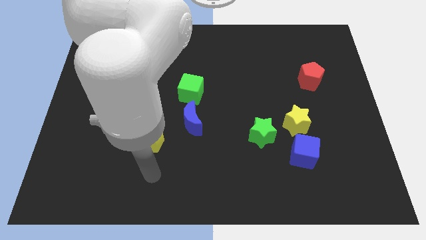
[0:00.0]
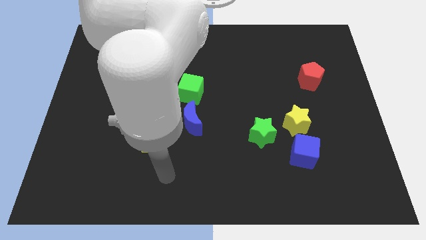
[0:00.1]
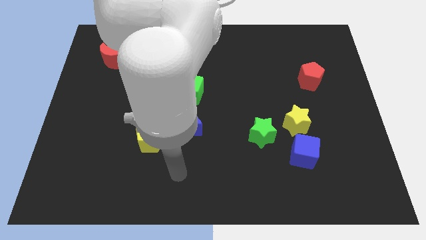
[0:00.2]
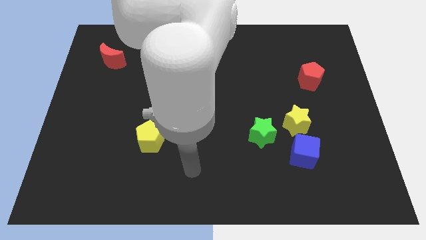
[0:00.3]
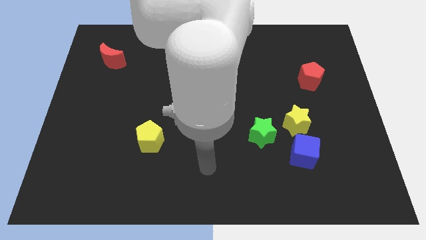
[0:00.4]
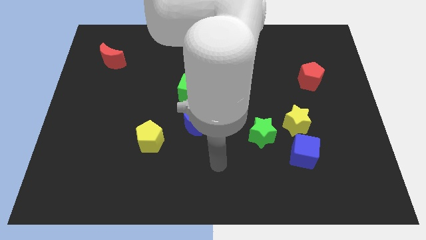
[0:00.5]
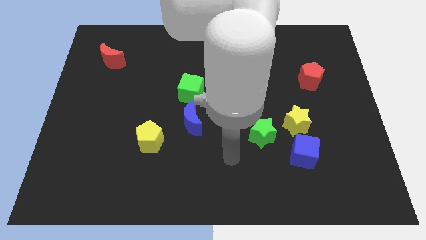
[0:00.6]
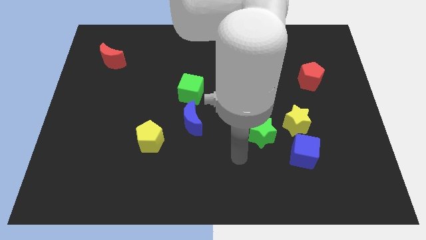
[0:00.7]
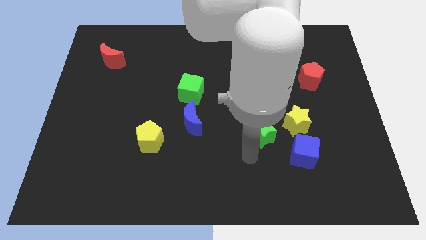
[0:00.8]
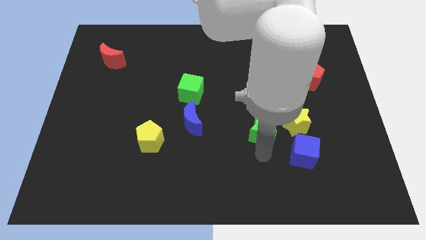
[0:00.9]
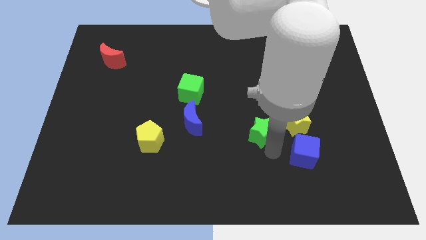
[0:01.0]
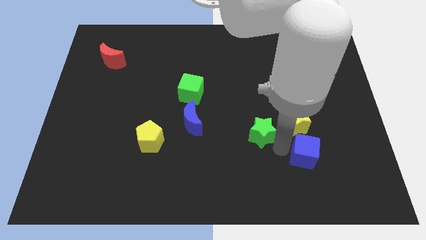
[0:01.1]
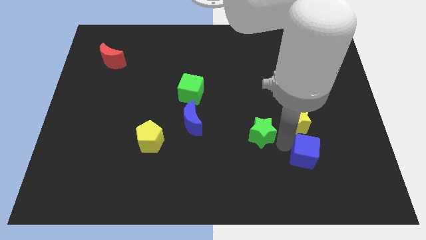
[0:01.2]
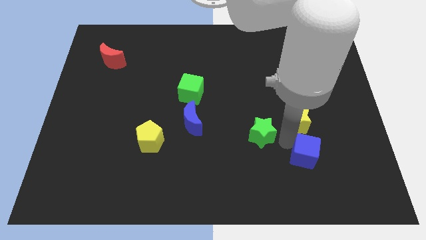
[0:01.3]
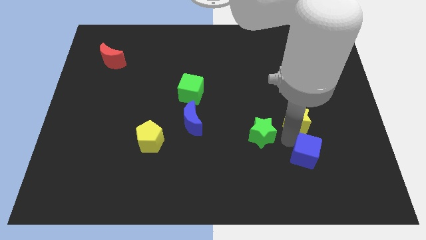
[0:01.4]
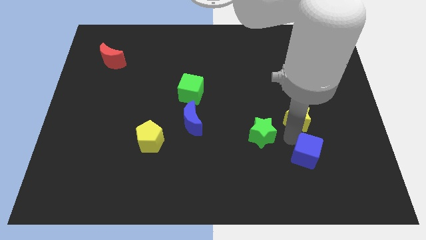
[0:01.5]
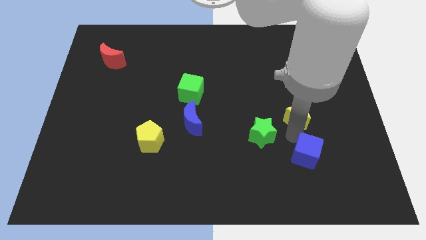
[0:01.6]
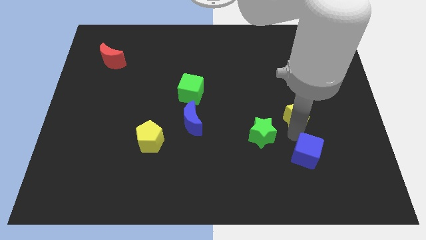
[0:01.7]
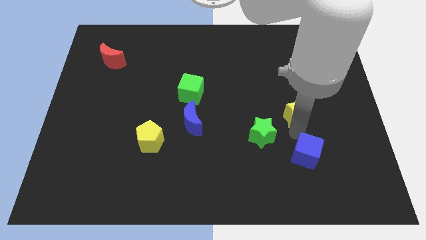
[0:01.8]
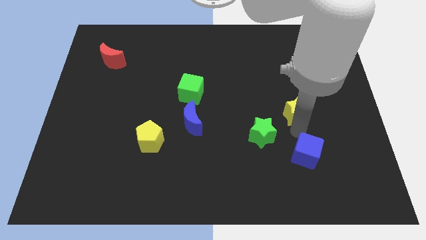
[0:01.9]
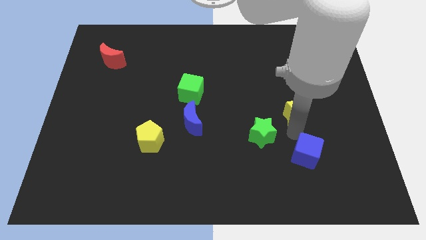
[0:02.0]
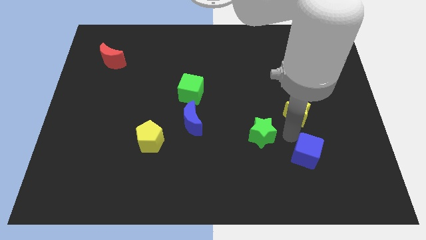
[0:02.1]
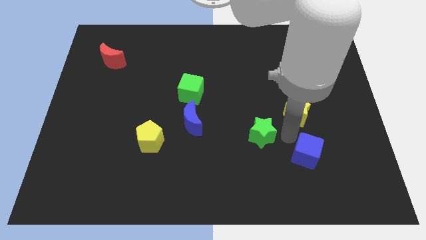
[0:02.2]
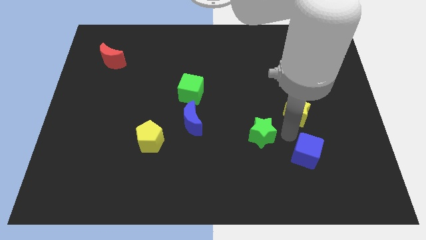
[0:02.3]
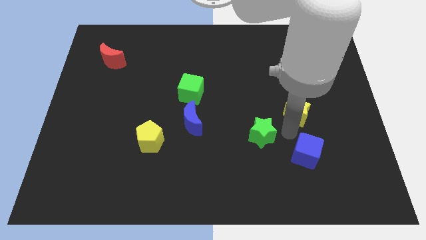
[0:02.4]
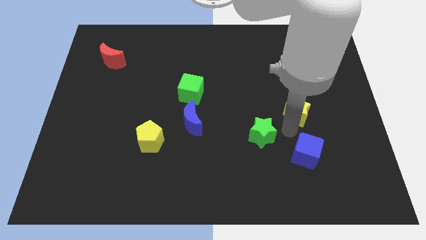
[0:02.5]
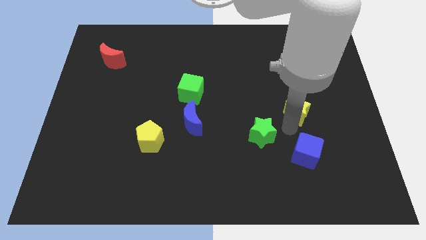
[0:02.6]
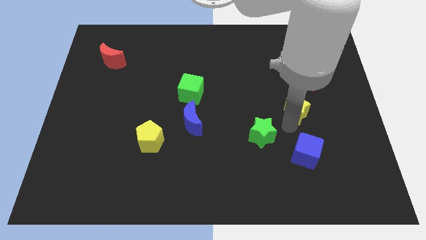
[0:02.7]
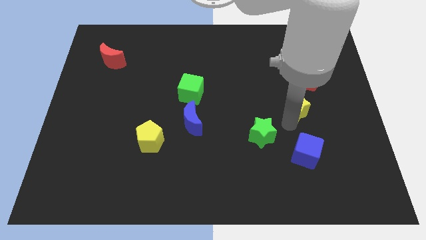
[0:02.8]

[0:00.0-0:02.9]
pull the yellow star apart from the blue cube and green star

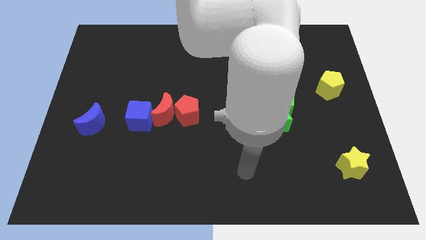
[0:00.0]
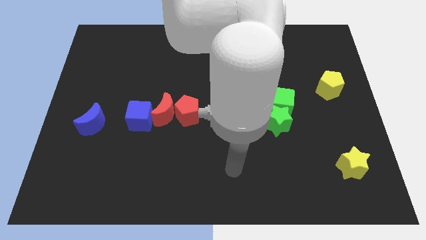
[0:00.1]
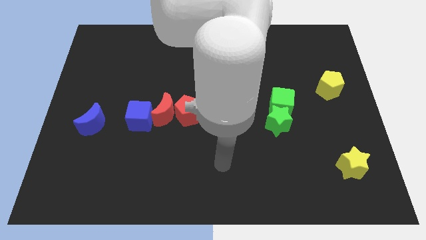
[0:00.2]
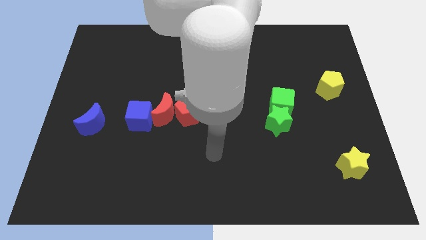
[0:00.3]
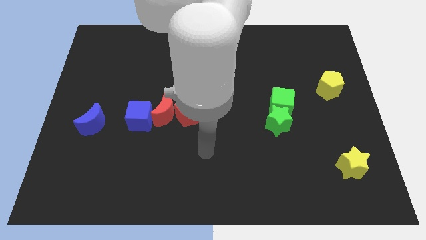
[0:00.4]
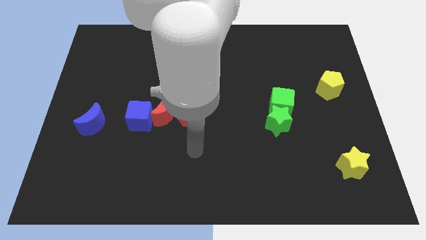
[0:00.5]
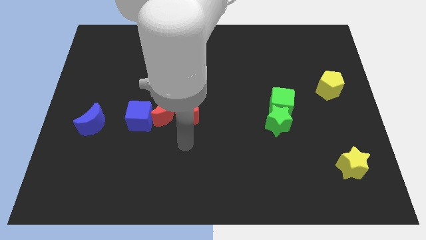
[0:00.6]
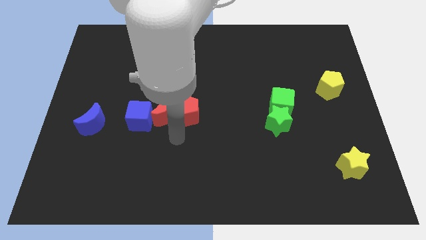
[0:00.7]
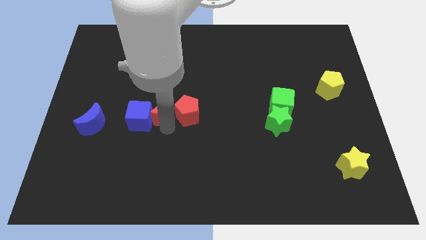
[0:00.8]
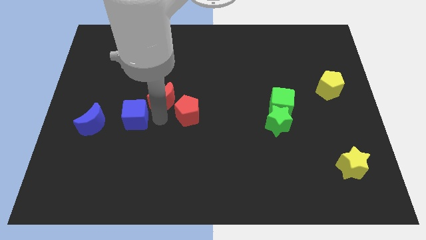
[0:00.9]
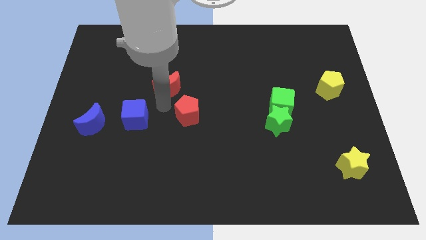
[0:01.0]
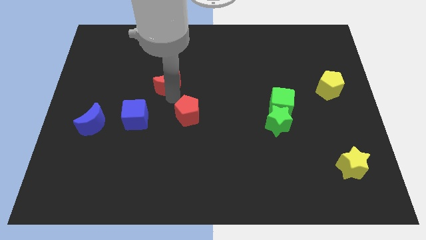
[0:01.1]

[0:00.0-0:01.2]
separate the red pentagon from the red moon

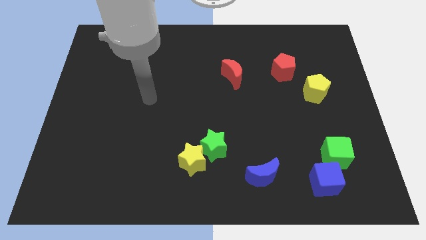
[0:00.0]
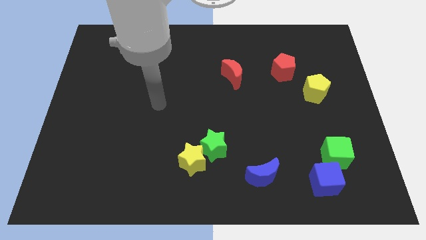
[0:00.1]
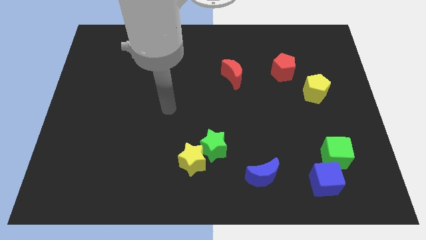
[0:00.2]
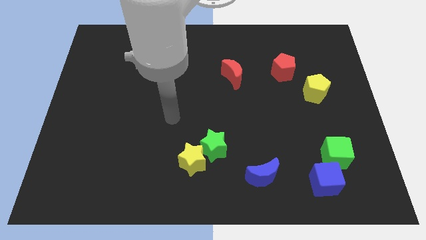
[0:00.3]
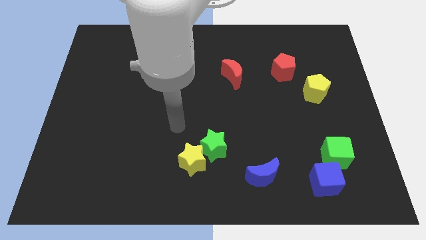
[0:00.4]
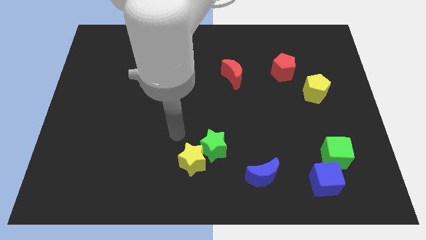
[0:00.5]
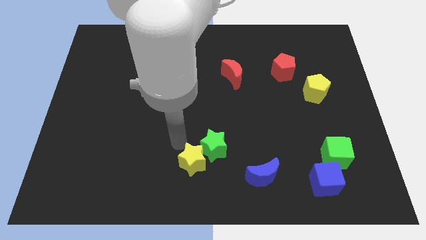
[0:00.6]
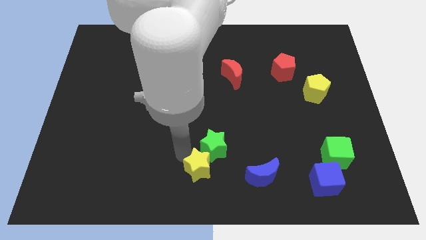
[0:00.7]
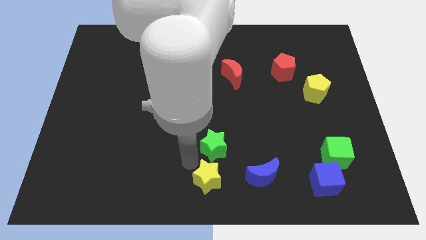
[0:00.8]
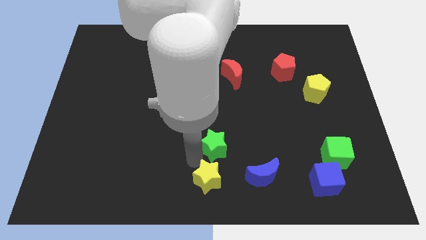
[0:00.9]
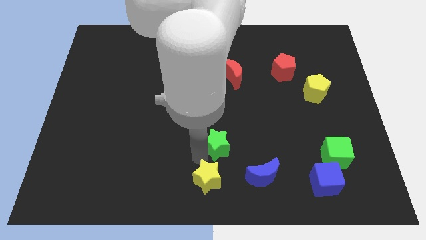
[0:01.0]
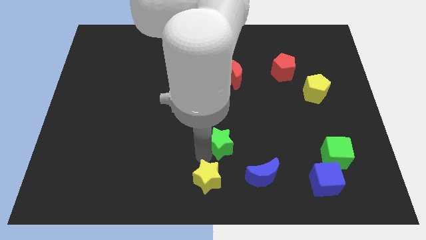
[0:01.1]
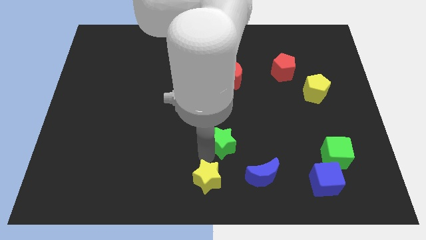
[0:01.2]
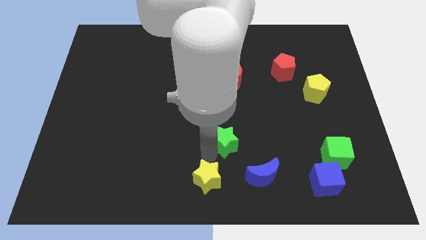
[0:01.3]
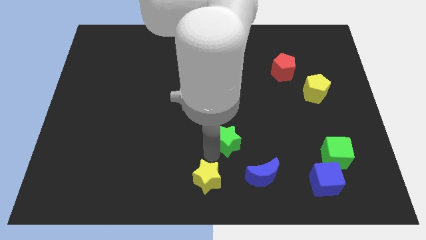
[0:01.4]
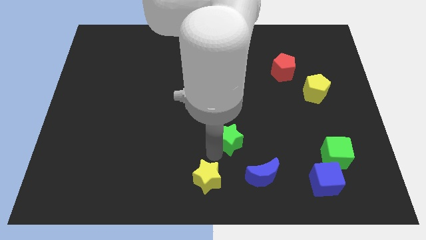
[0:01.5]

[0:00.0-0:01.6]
separate the green star from the yellow star

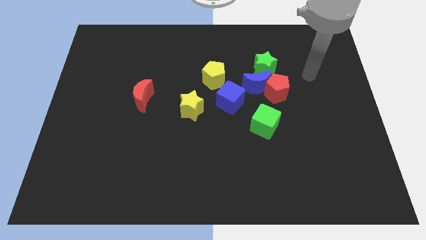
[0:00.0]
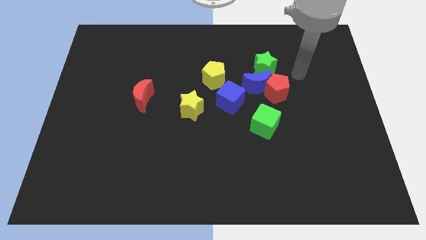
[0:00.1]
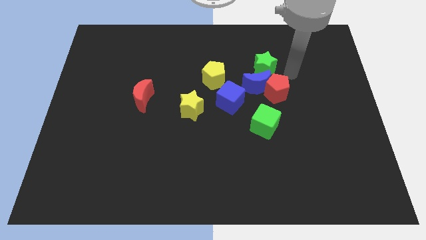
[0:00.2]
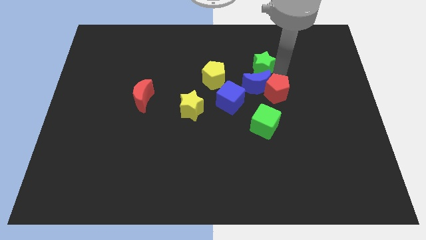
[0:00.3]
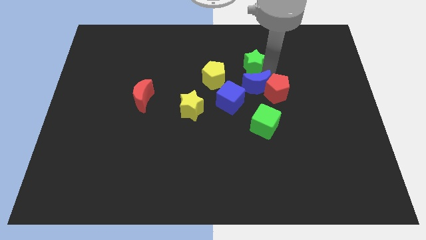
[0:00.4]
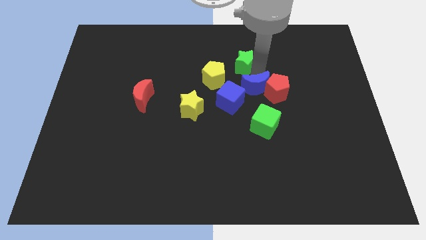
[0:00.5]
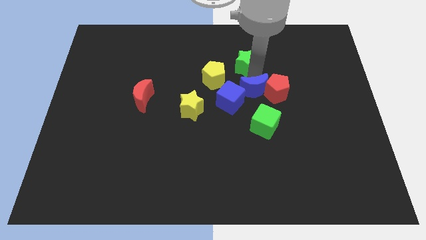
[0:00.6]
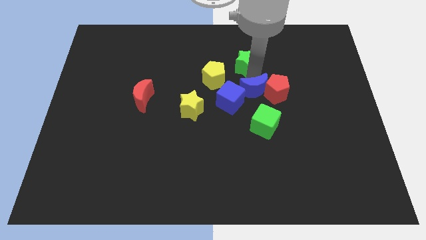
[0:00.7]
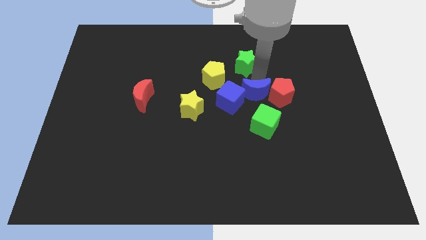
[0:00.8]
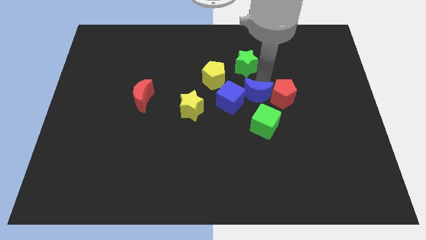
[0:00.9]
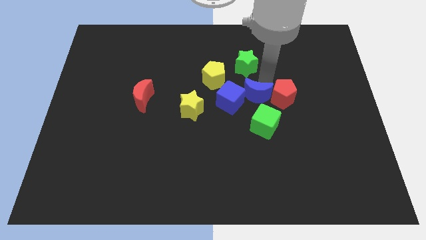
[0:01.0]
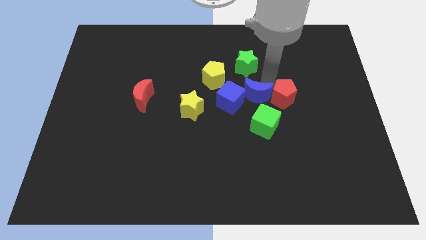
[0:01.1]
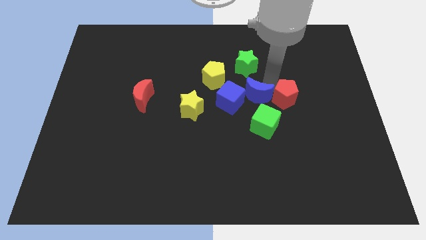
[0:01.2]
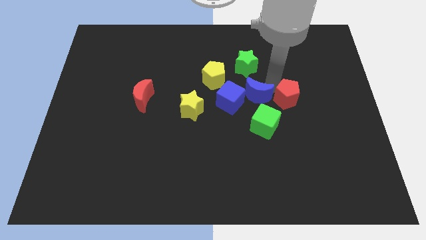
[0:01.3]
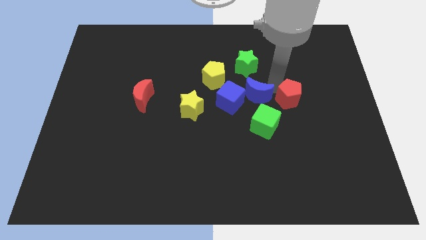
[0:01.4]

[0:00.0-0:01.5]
separate the red pentagon from the blue moon and green star

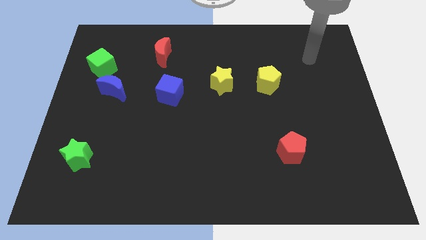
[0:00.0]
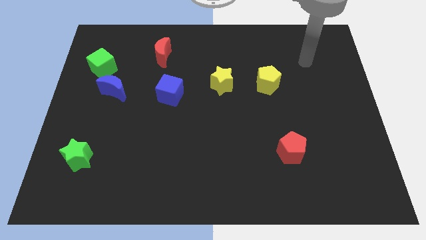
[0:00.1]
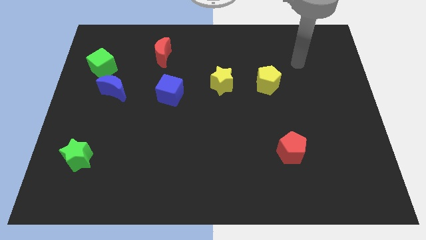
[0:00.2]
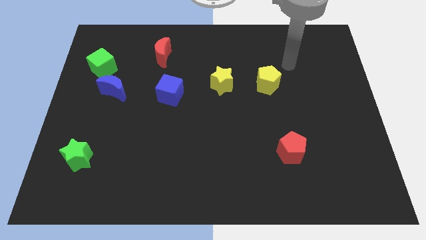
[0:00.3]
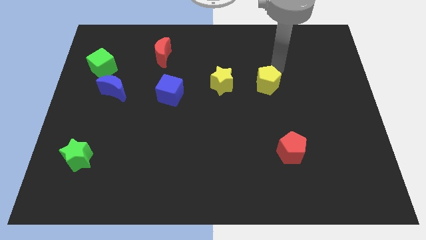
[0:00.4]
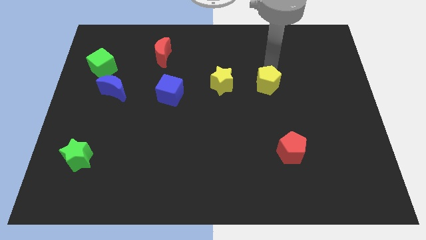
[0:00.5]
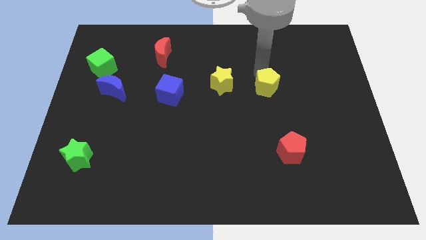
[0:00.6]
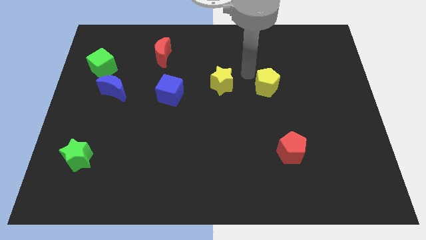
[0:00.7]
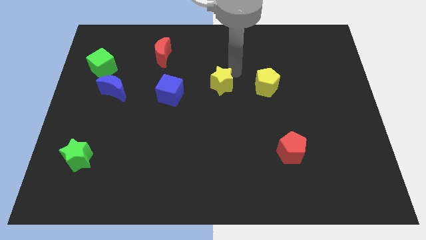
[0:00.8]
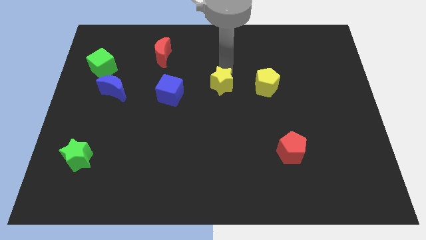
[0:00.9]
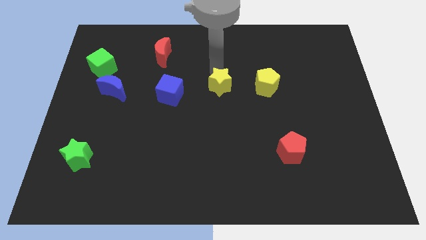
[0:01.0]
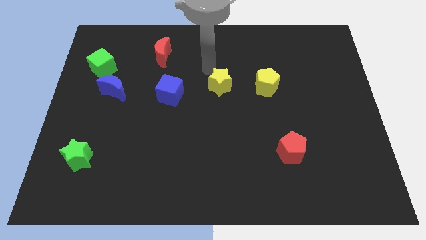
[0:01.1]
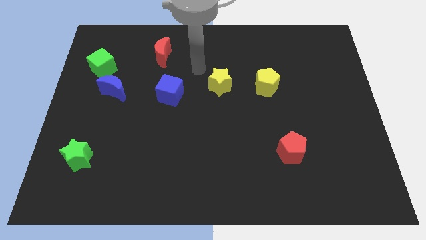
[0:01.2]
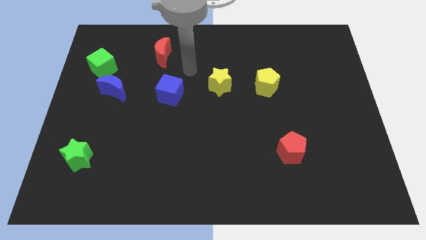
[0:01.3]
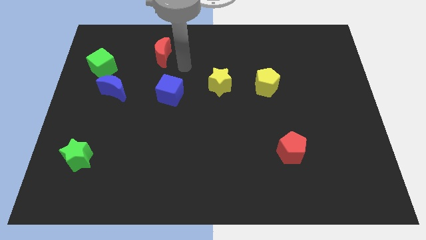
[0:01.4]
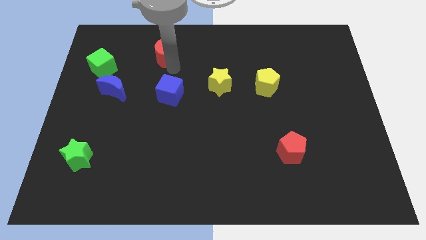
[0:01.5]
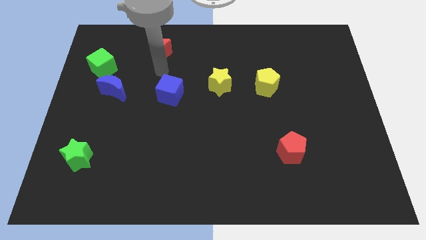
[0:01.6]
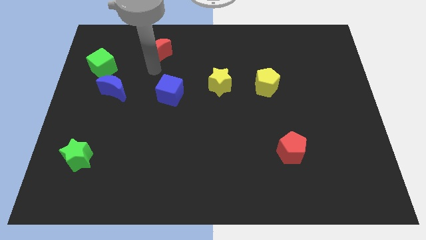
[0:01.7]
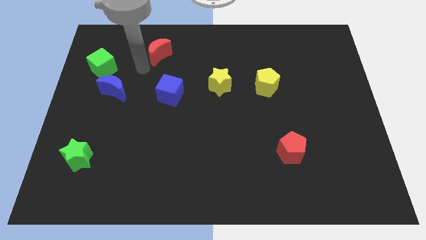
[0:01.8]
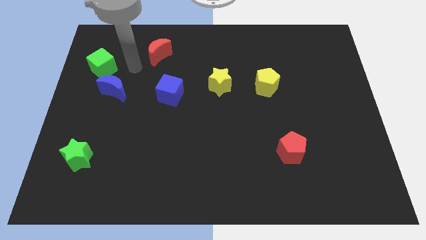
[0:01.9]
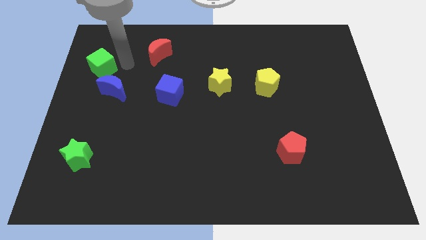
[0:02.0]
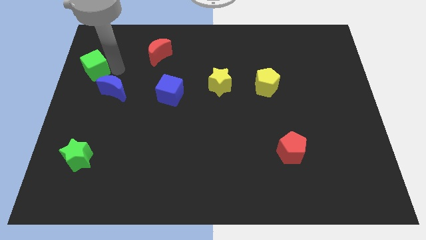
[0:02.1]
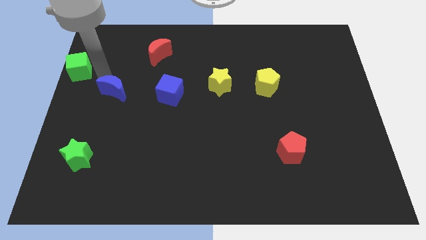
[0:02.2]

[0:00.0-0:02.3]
separate the blue moon from the green cube
